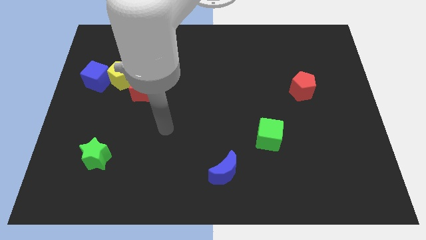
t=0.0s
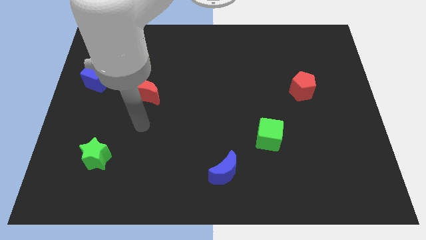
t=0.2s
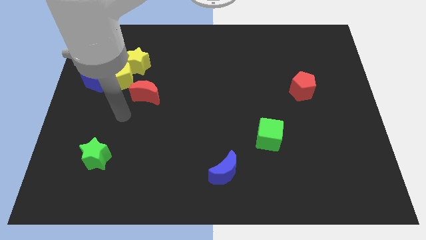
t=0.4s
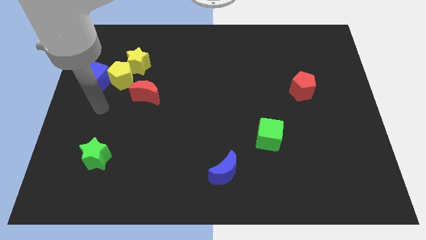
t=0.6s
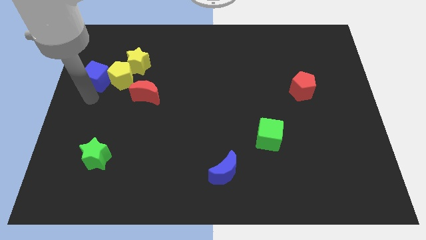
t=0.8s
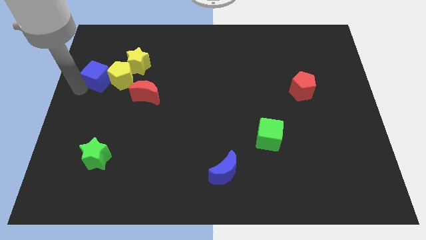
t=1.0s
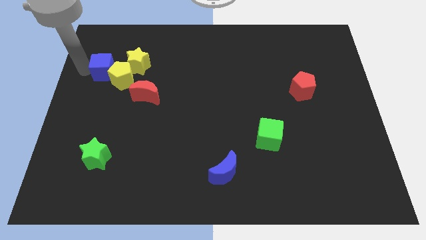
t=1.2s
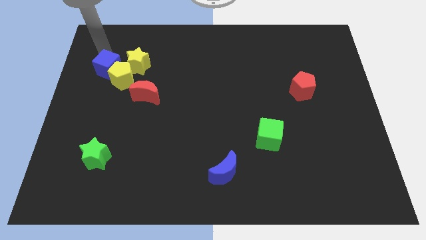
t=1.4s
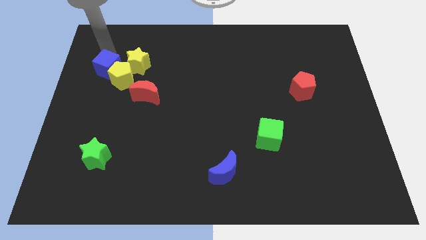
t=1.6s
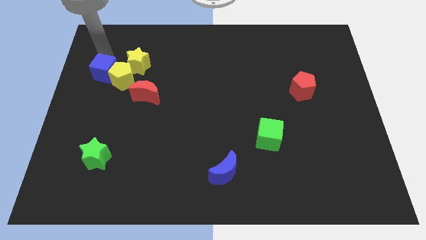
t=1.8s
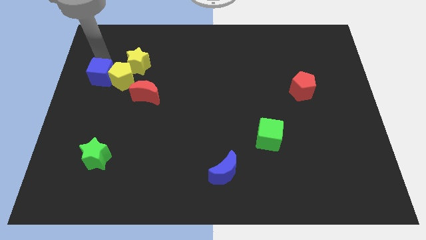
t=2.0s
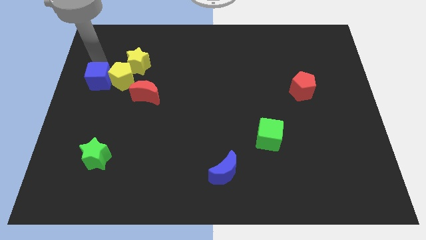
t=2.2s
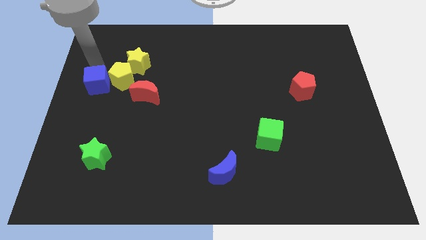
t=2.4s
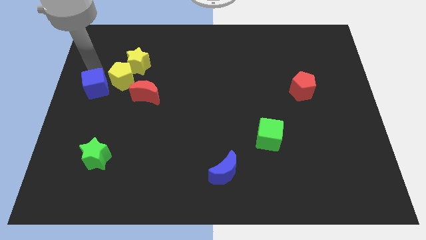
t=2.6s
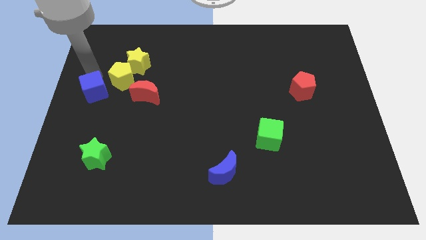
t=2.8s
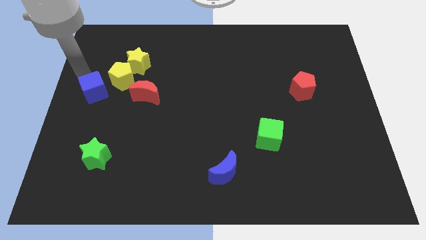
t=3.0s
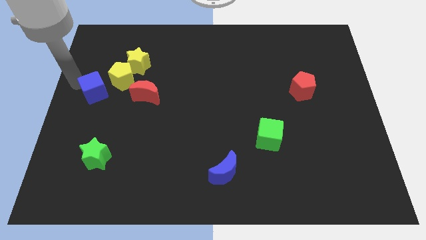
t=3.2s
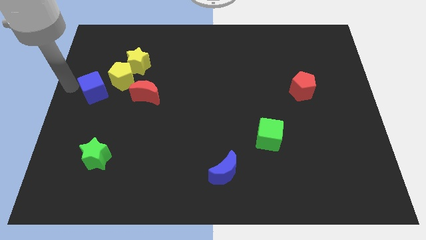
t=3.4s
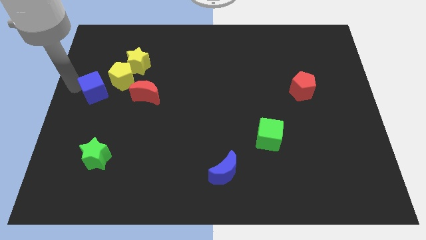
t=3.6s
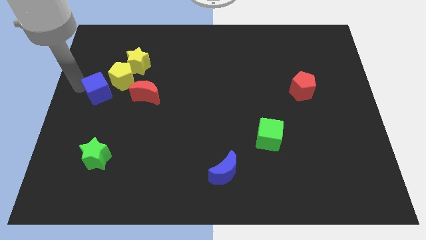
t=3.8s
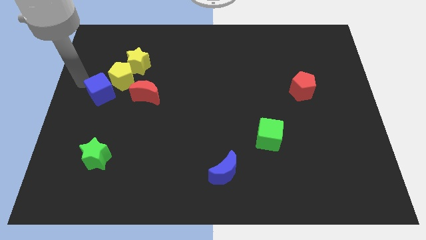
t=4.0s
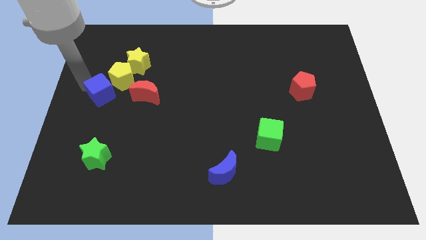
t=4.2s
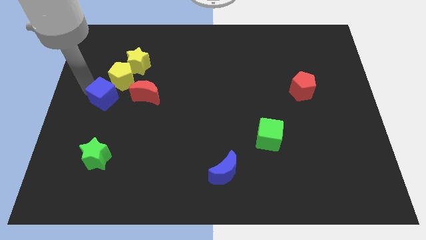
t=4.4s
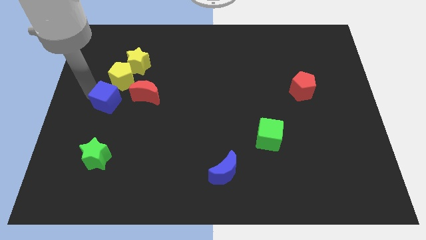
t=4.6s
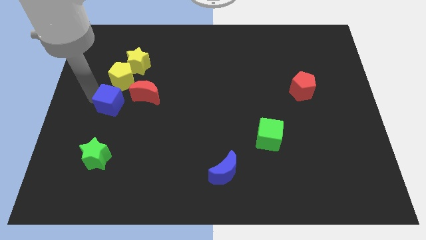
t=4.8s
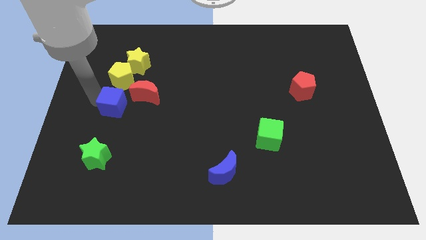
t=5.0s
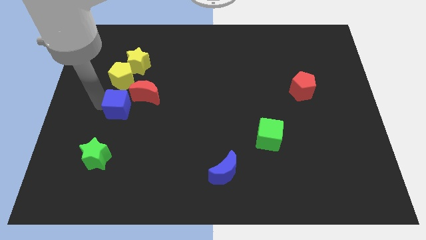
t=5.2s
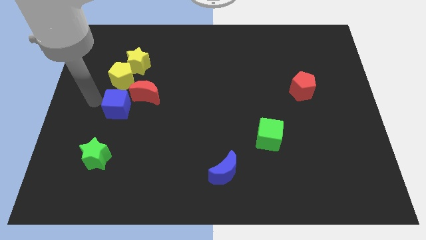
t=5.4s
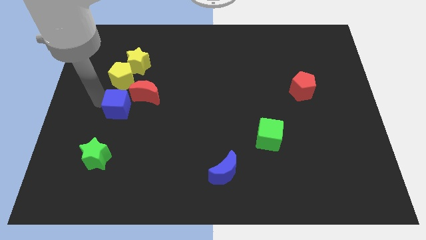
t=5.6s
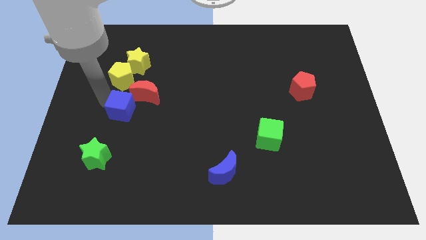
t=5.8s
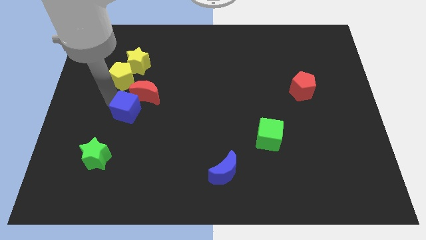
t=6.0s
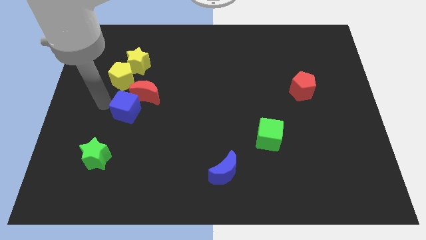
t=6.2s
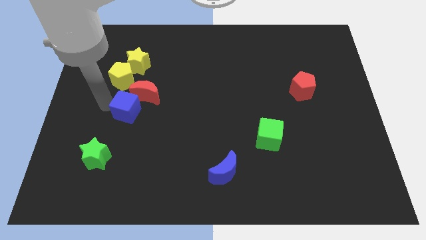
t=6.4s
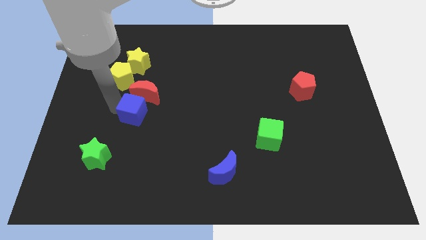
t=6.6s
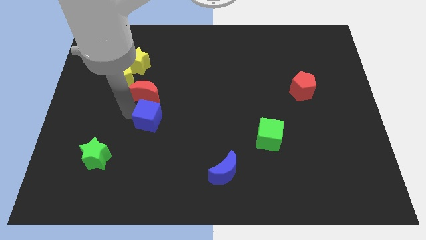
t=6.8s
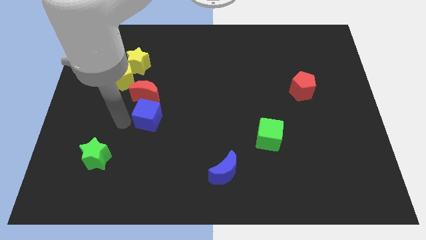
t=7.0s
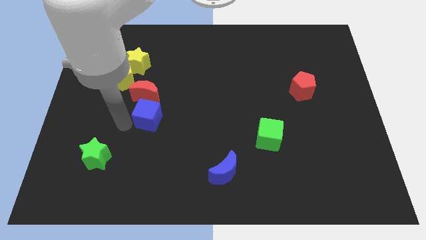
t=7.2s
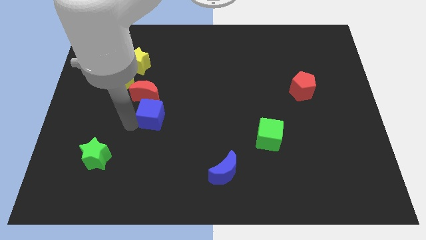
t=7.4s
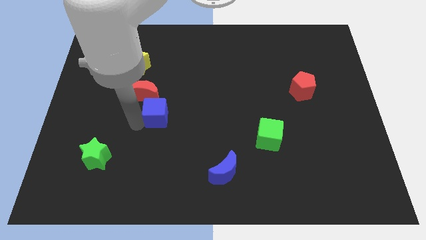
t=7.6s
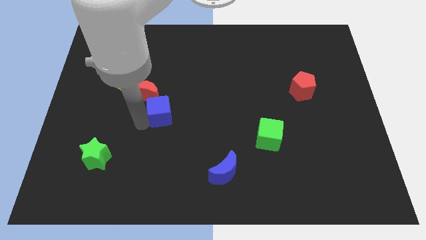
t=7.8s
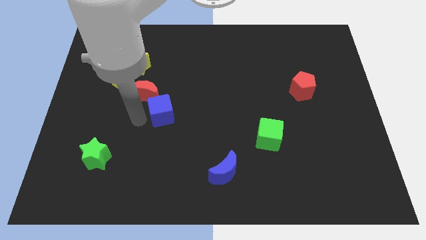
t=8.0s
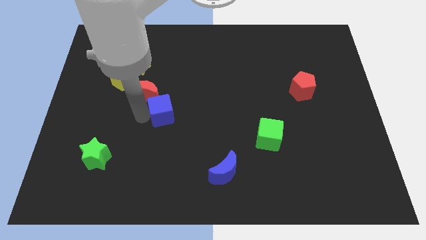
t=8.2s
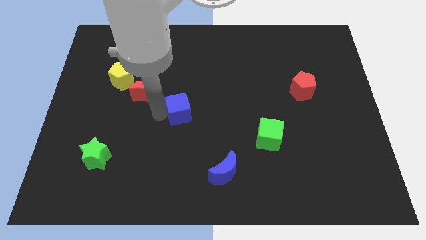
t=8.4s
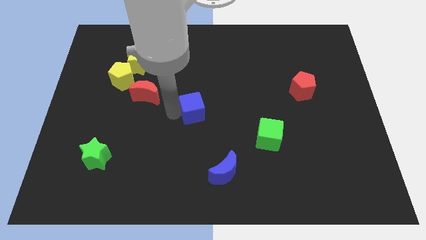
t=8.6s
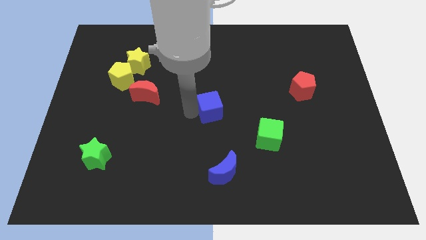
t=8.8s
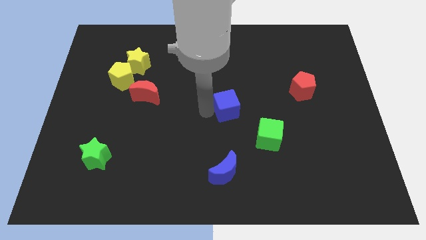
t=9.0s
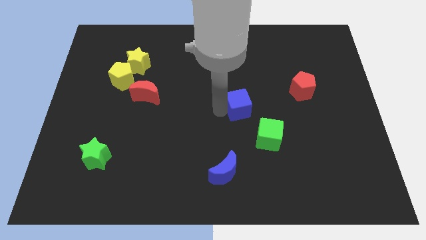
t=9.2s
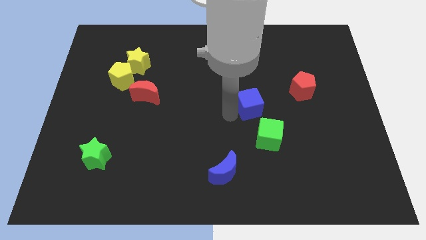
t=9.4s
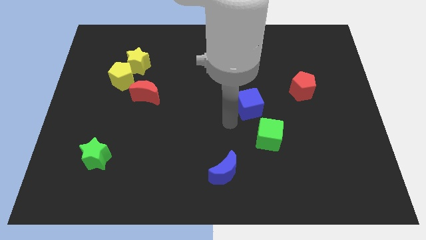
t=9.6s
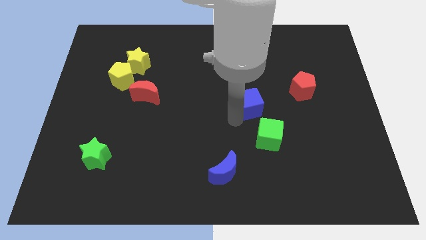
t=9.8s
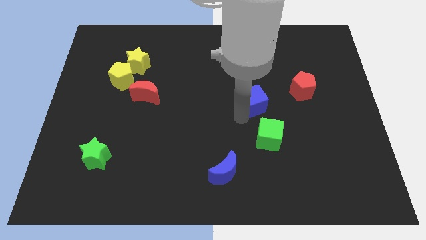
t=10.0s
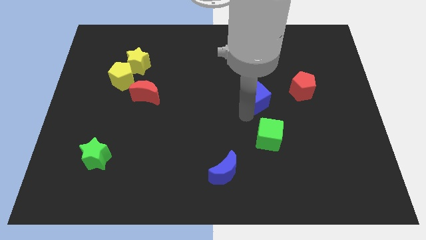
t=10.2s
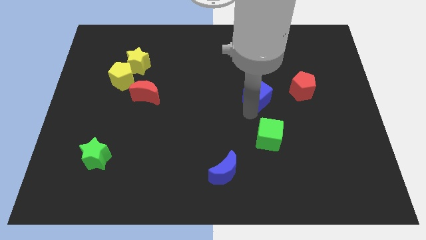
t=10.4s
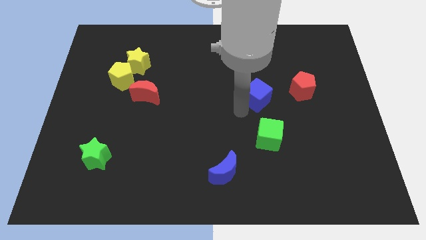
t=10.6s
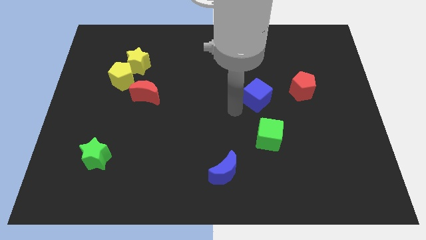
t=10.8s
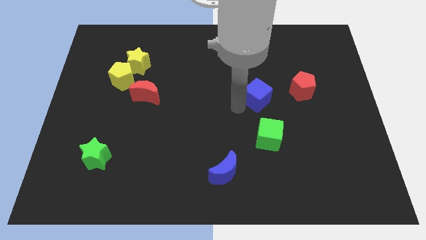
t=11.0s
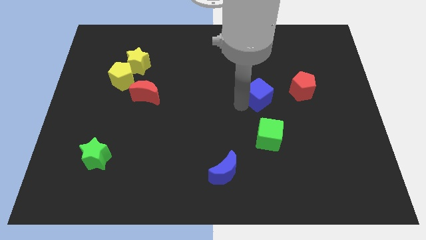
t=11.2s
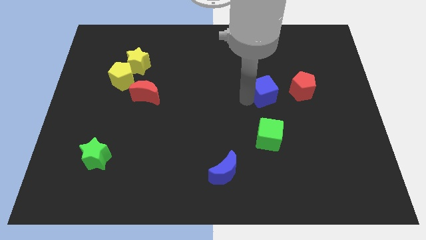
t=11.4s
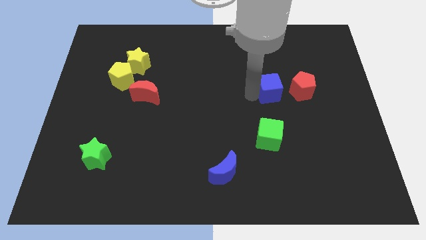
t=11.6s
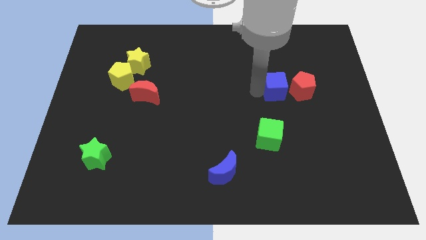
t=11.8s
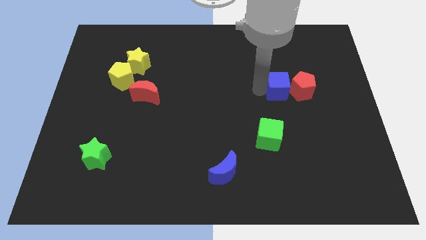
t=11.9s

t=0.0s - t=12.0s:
push the blue cube next to the red pentagon
